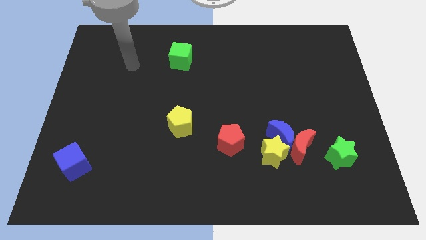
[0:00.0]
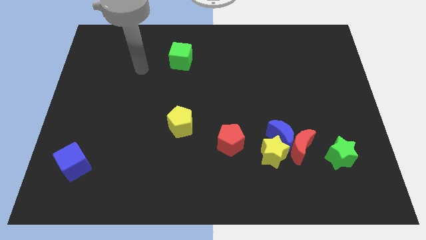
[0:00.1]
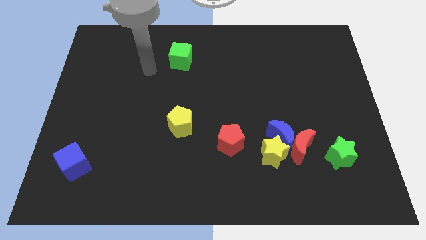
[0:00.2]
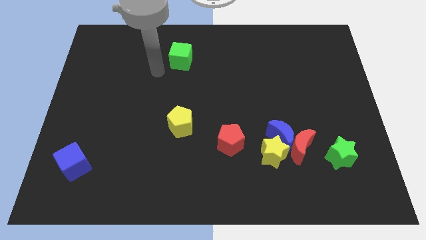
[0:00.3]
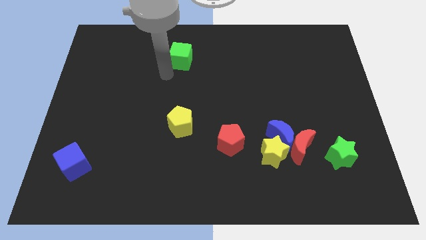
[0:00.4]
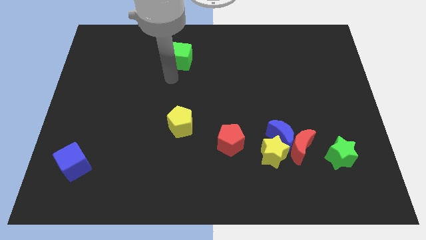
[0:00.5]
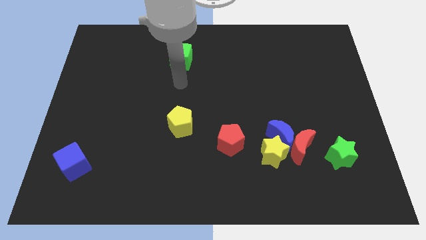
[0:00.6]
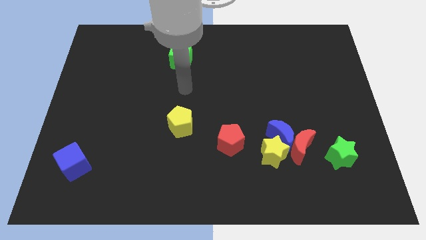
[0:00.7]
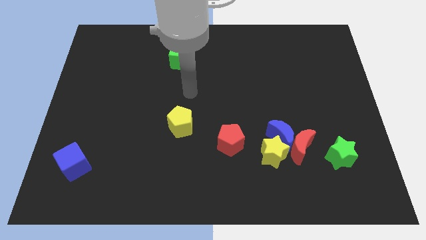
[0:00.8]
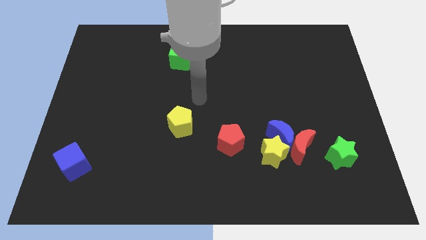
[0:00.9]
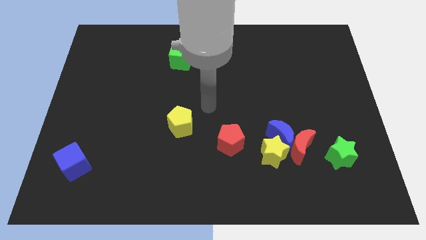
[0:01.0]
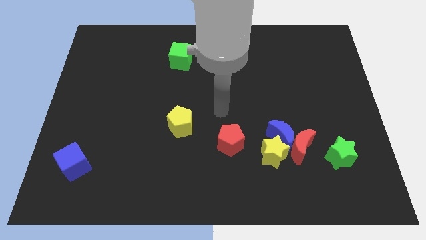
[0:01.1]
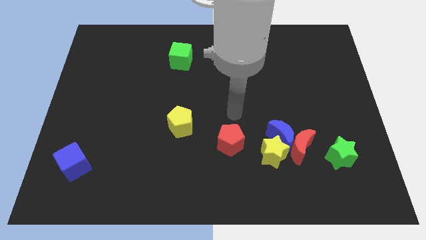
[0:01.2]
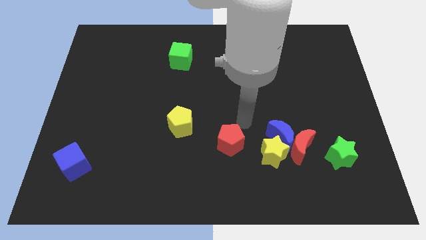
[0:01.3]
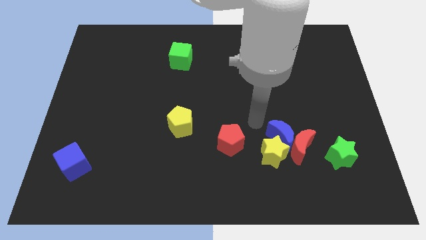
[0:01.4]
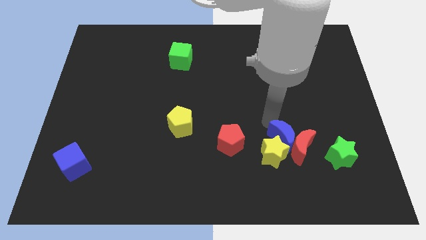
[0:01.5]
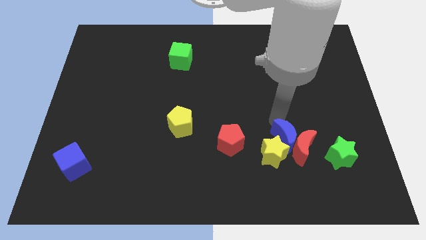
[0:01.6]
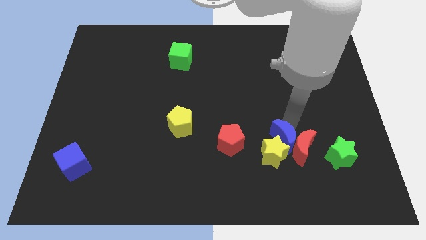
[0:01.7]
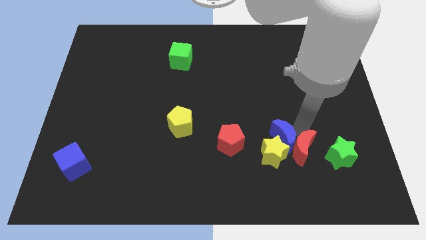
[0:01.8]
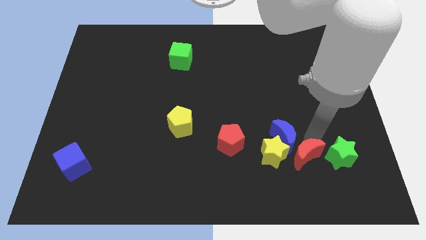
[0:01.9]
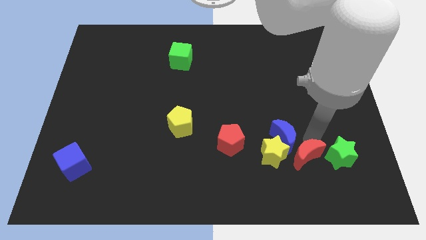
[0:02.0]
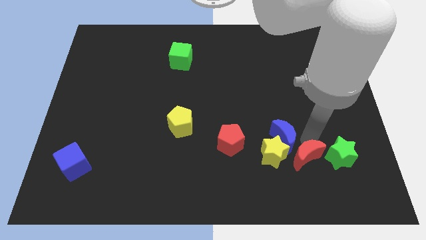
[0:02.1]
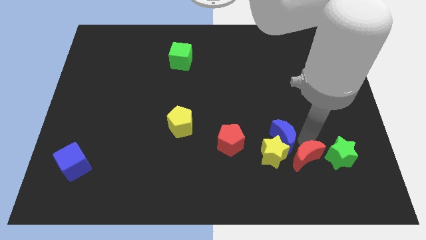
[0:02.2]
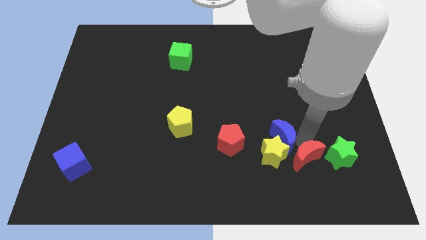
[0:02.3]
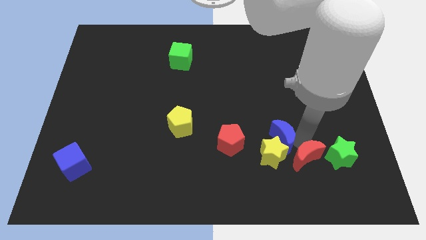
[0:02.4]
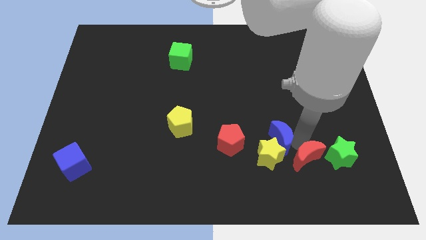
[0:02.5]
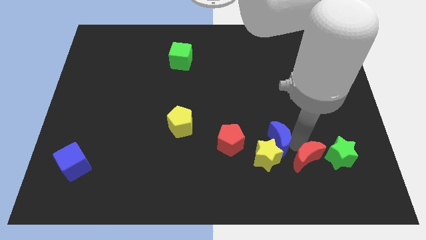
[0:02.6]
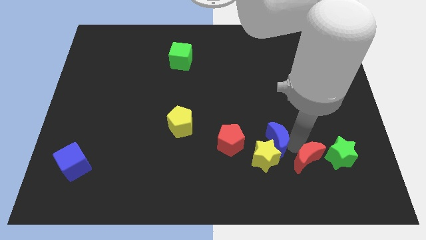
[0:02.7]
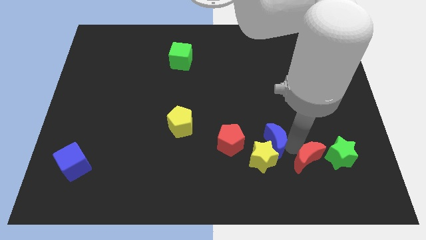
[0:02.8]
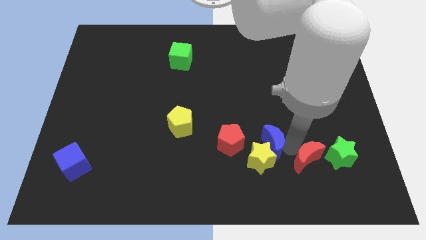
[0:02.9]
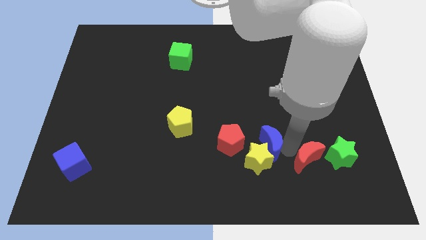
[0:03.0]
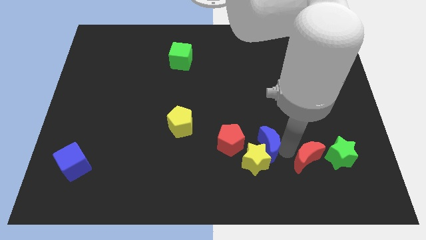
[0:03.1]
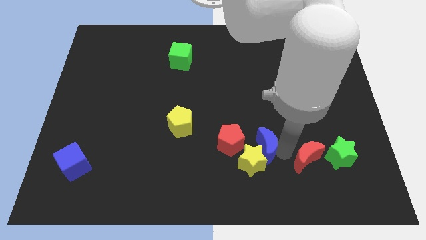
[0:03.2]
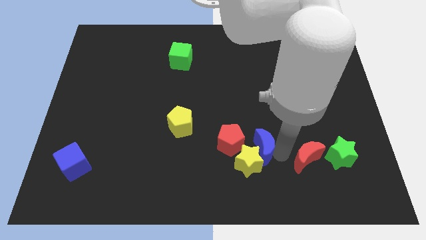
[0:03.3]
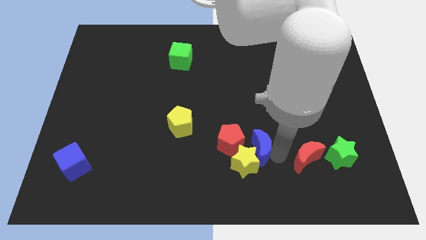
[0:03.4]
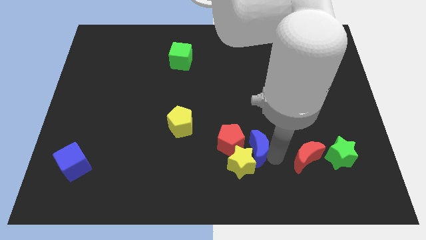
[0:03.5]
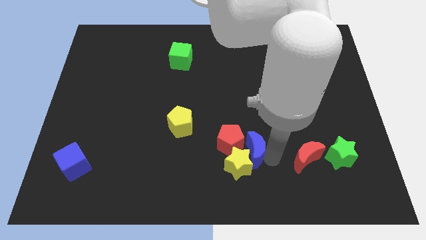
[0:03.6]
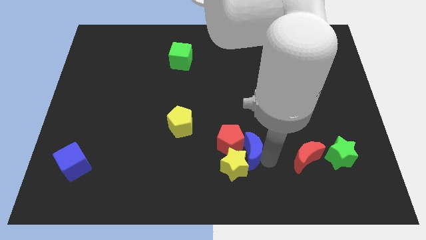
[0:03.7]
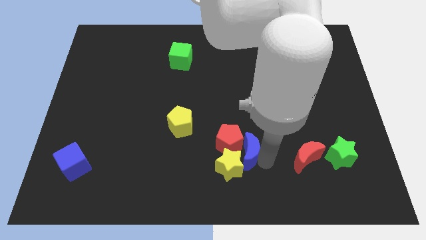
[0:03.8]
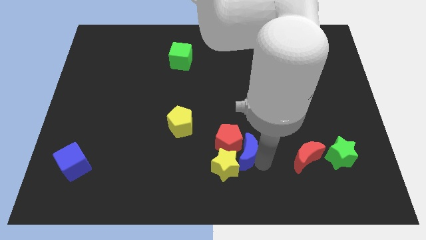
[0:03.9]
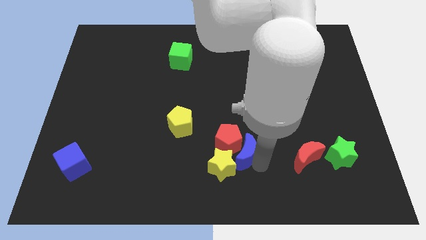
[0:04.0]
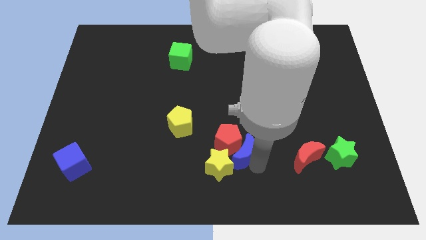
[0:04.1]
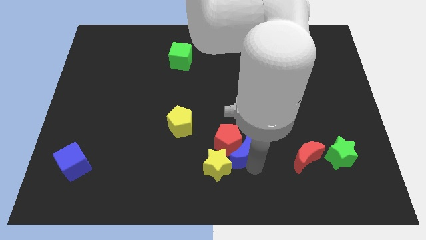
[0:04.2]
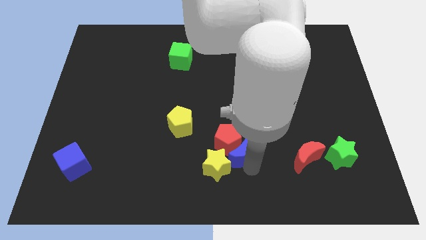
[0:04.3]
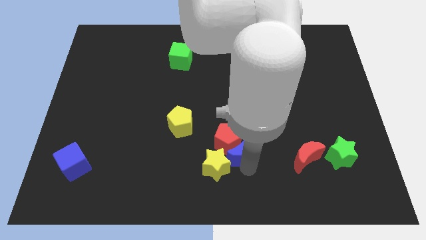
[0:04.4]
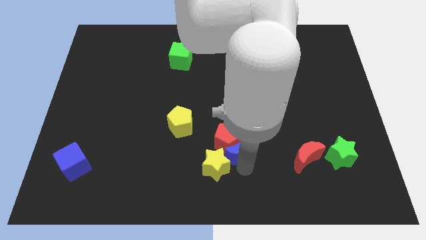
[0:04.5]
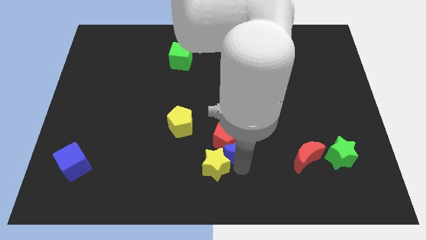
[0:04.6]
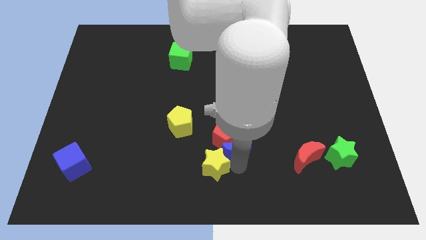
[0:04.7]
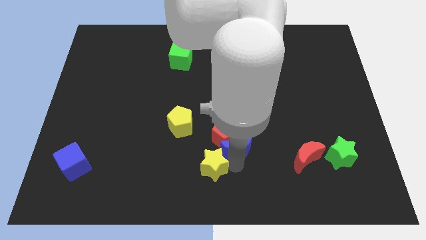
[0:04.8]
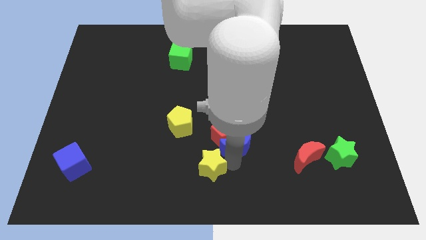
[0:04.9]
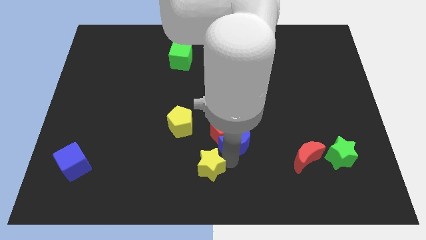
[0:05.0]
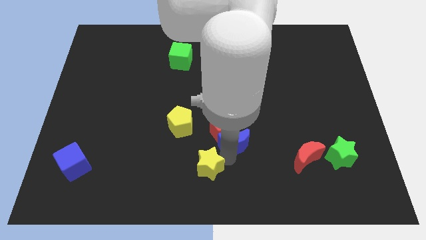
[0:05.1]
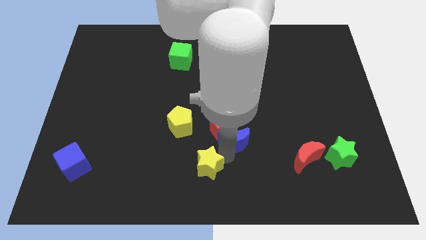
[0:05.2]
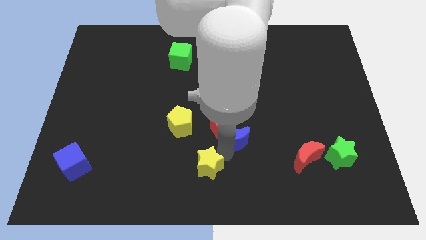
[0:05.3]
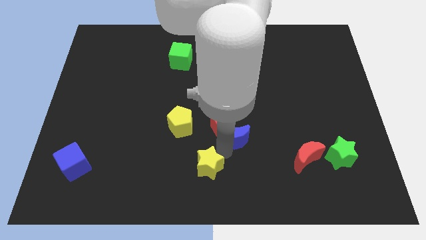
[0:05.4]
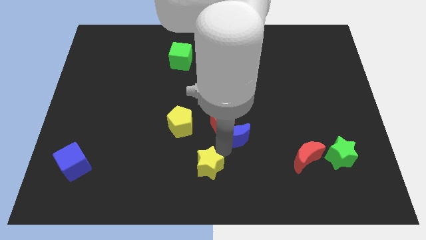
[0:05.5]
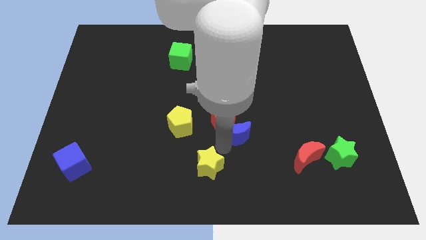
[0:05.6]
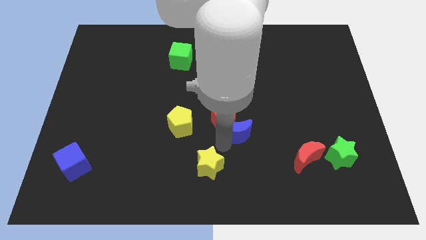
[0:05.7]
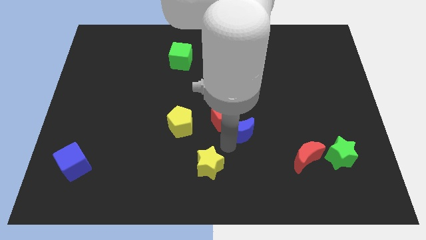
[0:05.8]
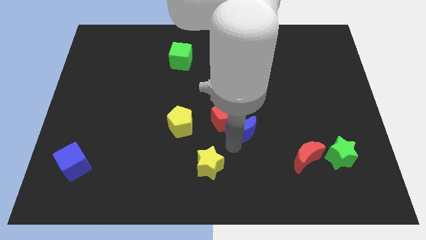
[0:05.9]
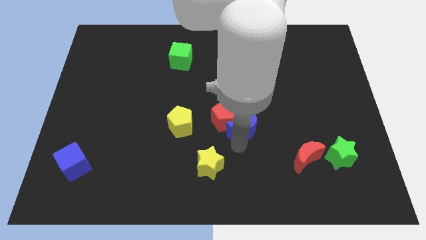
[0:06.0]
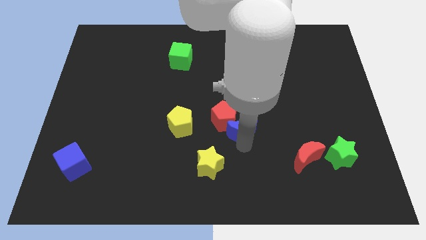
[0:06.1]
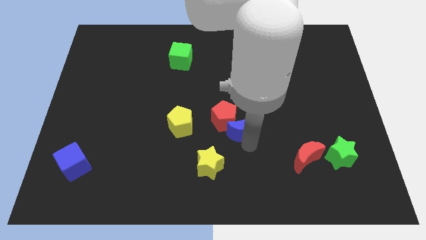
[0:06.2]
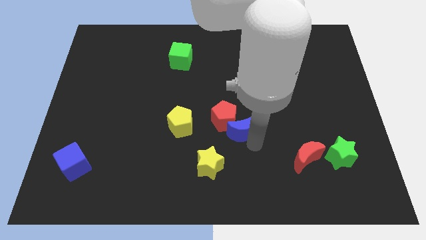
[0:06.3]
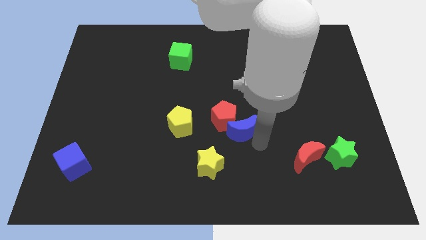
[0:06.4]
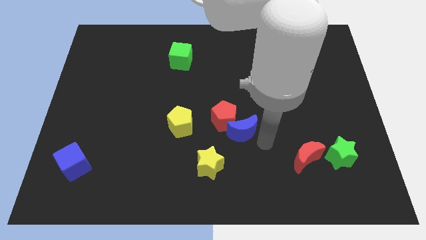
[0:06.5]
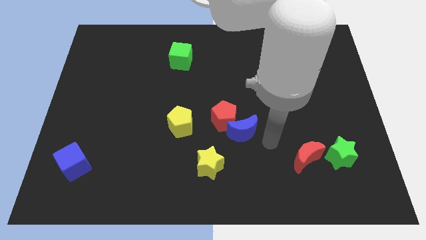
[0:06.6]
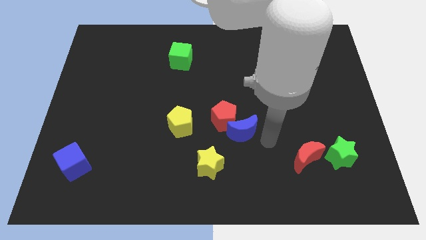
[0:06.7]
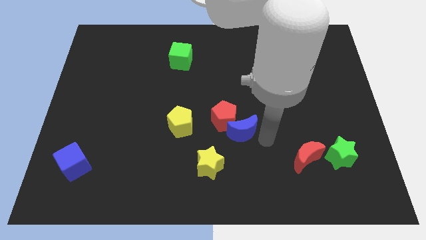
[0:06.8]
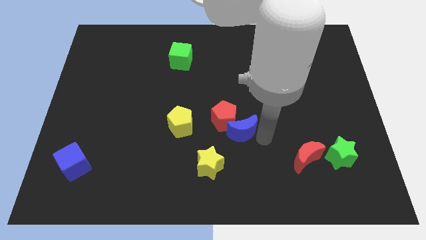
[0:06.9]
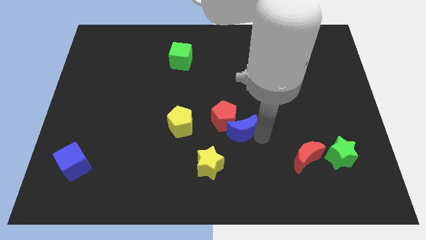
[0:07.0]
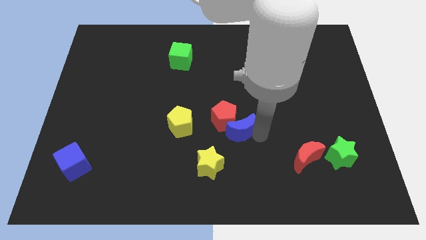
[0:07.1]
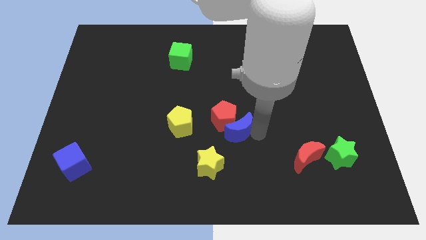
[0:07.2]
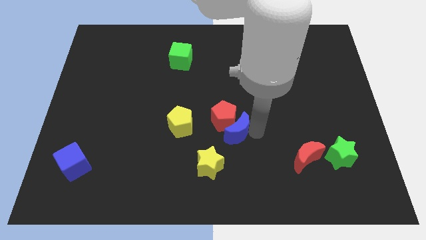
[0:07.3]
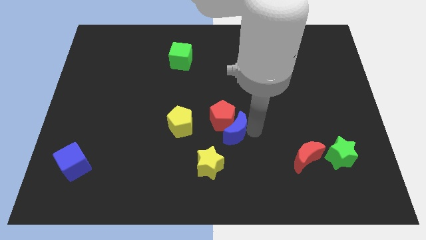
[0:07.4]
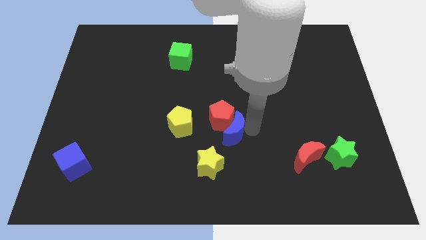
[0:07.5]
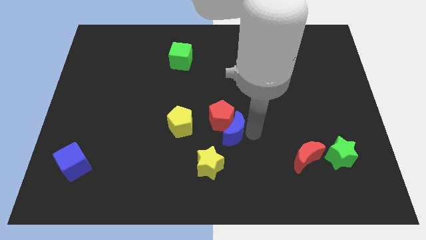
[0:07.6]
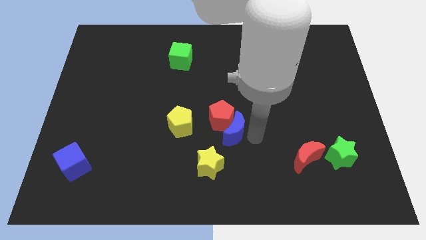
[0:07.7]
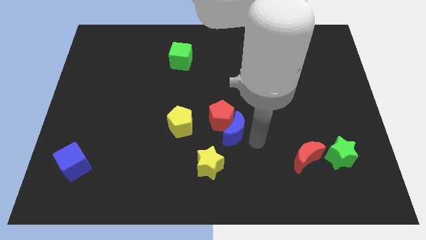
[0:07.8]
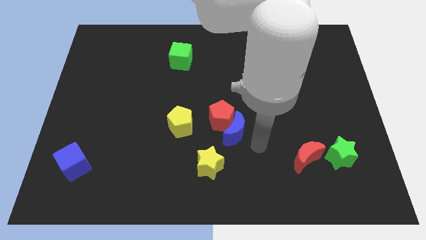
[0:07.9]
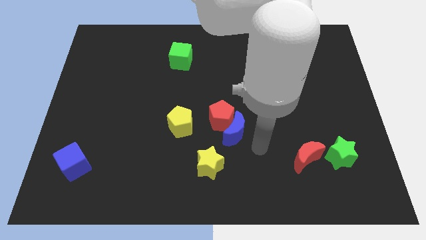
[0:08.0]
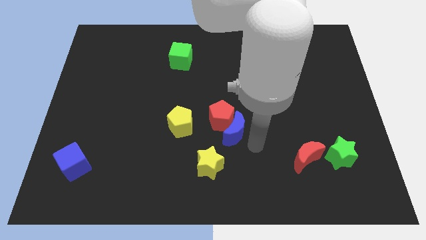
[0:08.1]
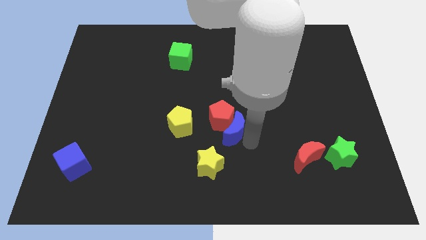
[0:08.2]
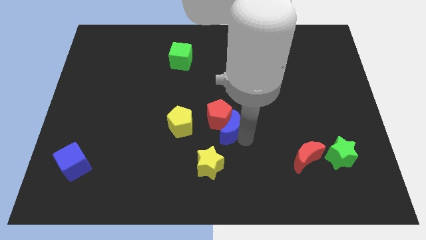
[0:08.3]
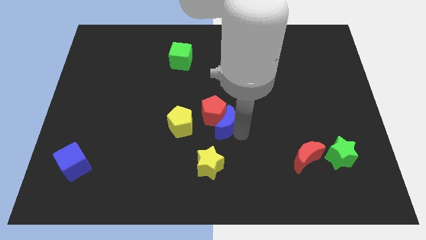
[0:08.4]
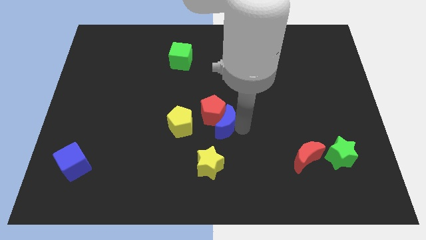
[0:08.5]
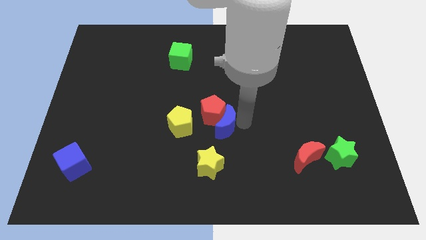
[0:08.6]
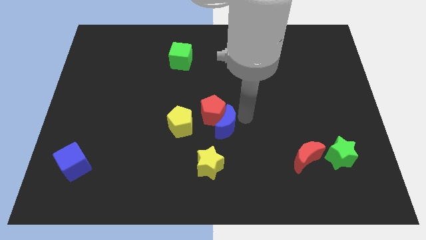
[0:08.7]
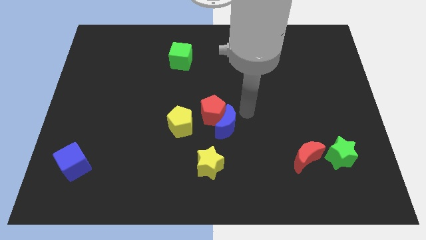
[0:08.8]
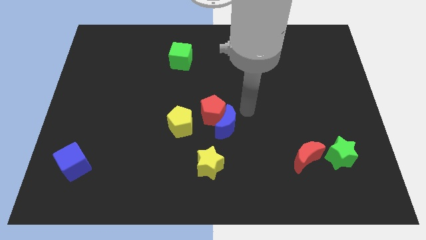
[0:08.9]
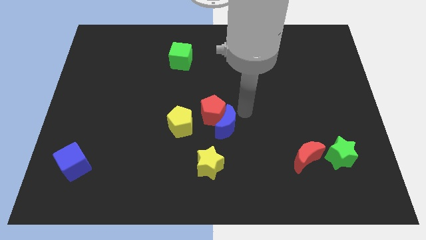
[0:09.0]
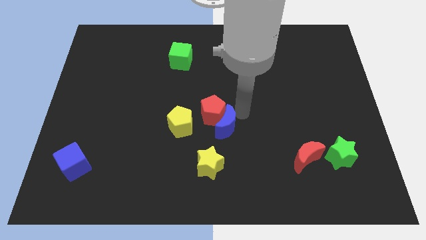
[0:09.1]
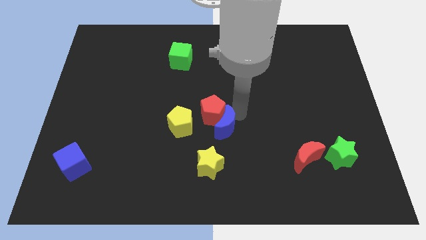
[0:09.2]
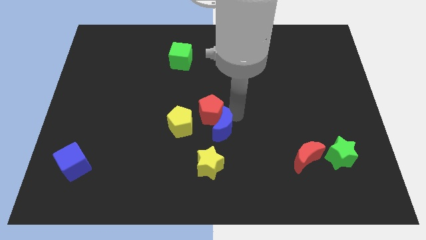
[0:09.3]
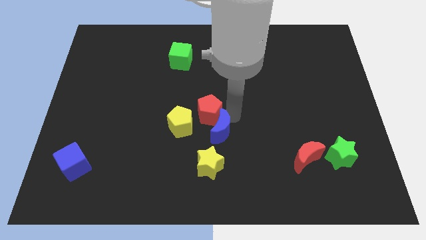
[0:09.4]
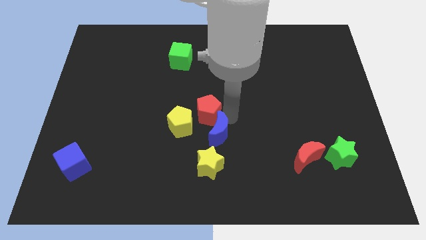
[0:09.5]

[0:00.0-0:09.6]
push the blue moon to the bottom right of the yellow pentagon
